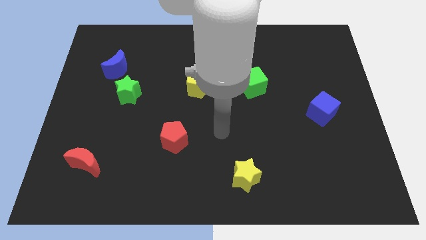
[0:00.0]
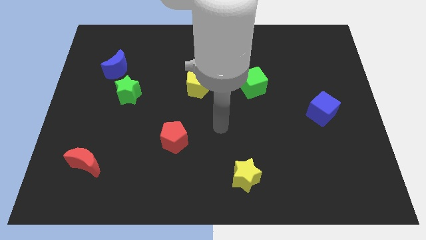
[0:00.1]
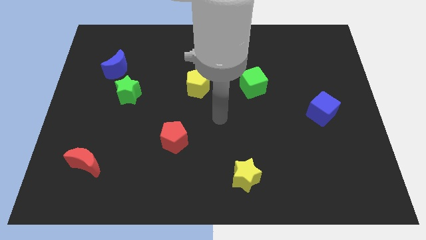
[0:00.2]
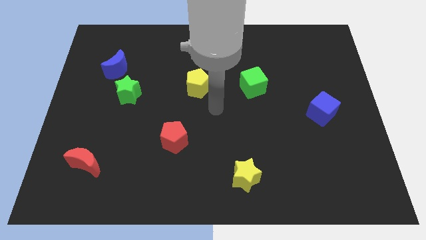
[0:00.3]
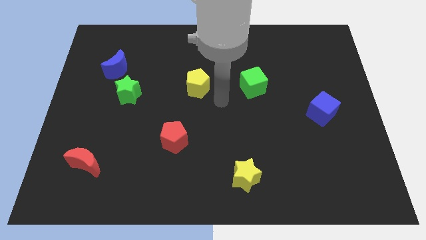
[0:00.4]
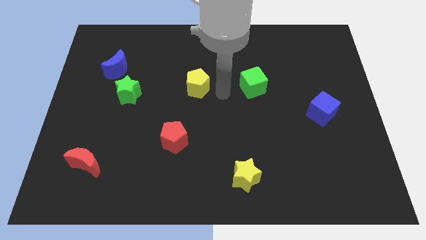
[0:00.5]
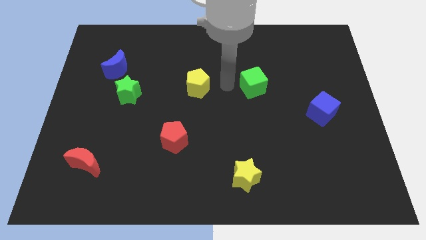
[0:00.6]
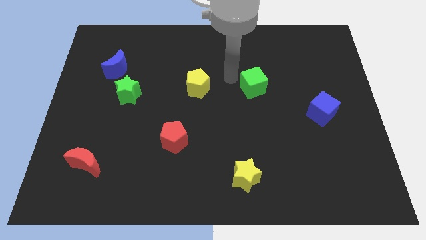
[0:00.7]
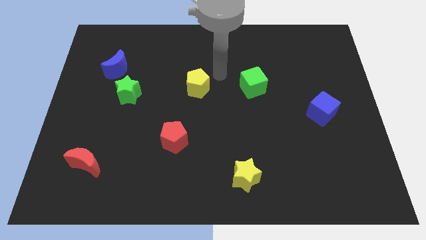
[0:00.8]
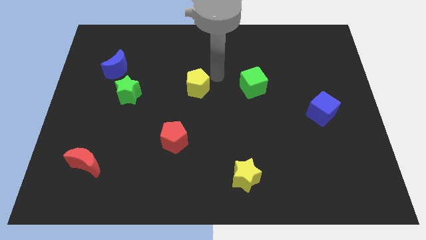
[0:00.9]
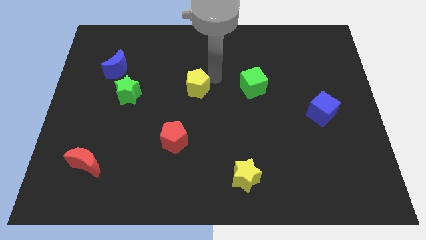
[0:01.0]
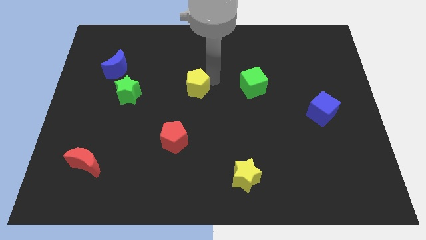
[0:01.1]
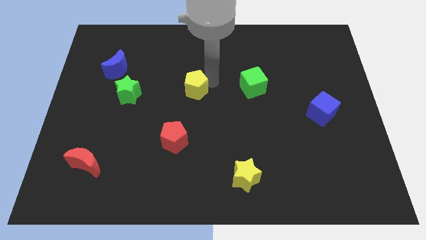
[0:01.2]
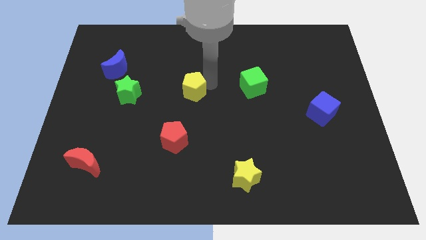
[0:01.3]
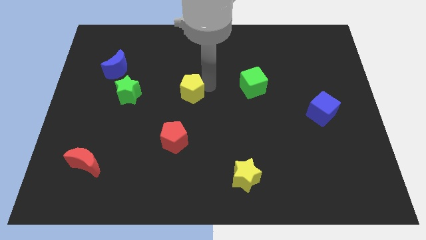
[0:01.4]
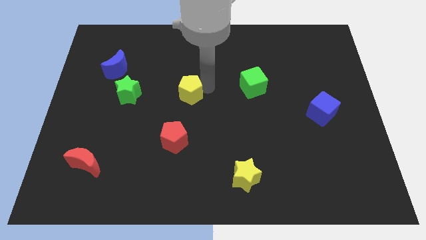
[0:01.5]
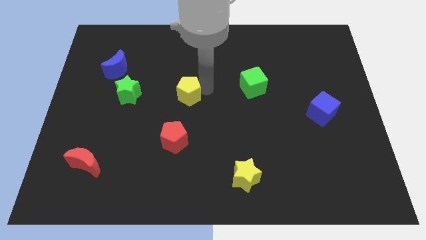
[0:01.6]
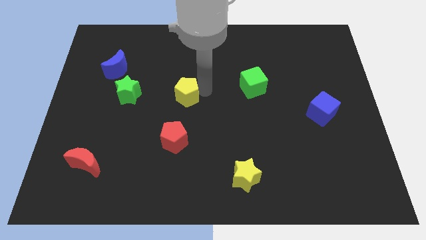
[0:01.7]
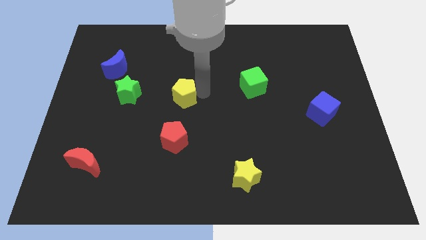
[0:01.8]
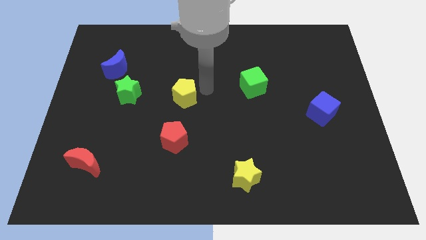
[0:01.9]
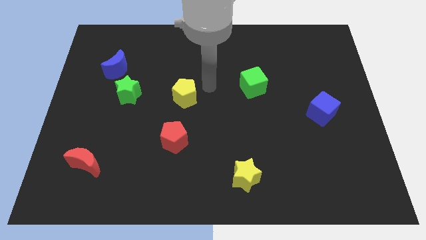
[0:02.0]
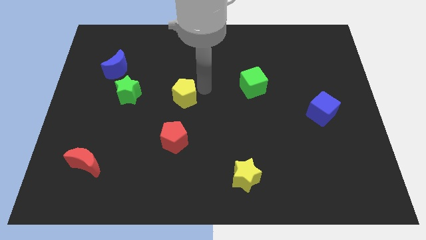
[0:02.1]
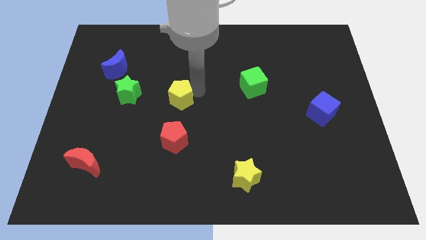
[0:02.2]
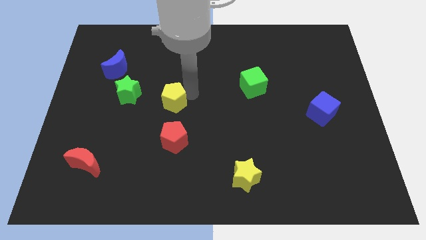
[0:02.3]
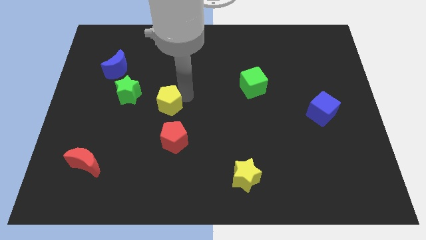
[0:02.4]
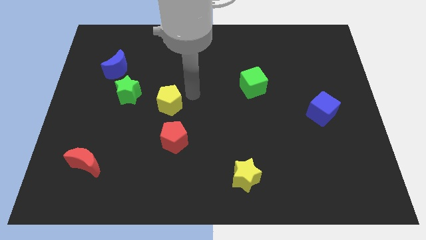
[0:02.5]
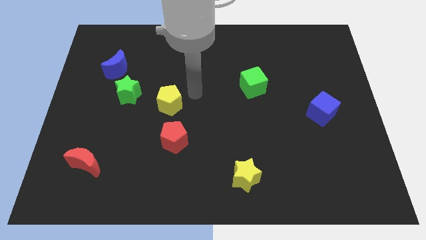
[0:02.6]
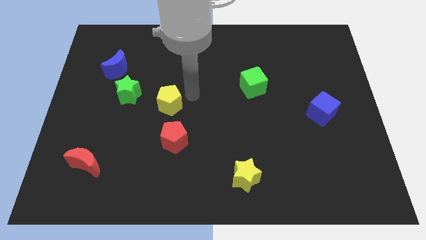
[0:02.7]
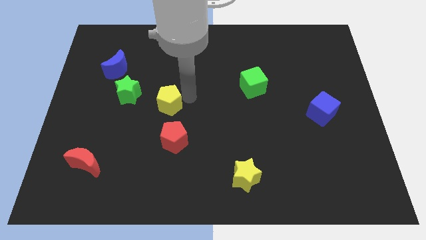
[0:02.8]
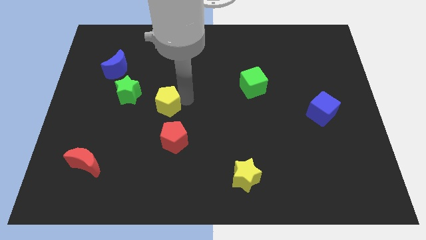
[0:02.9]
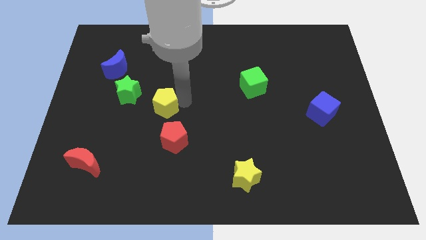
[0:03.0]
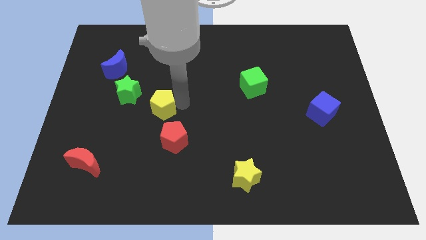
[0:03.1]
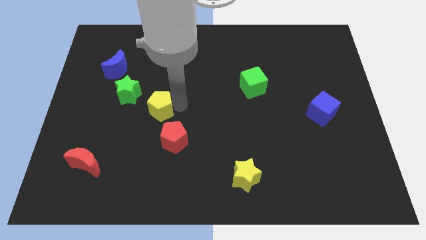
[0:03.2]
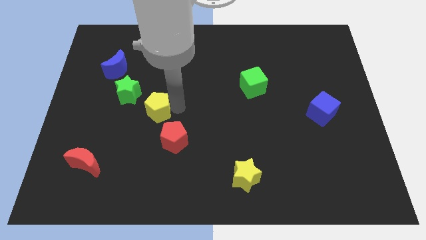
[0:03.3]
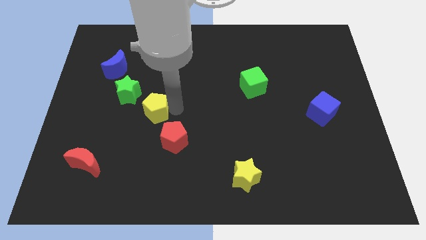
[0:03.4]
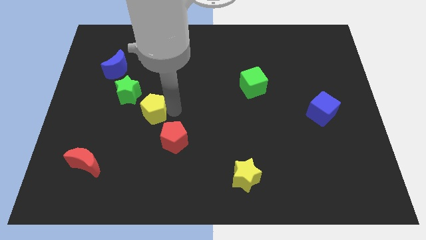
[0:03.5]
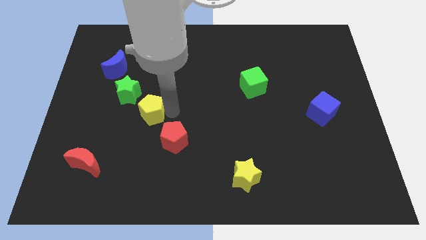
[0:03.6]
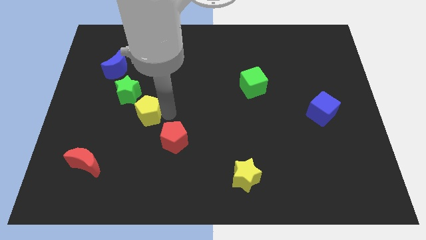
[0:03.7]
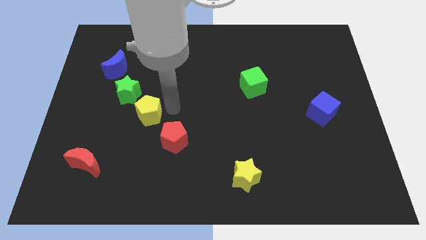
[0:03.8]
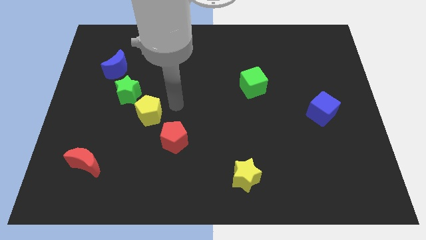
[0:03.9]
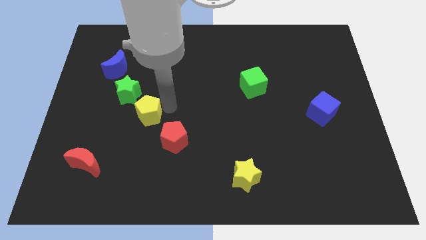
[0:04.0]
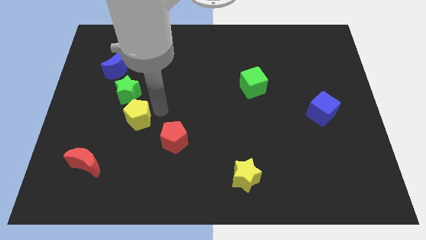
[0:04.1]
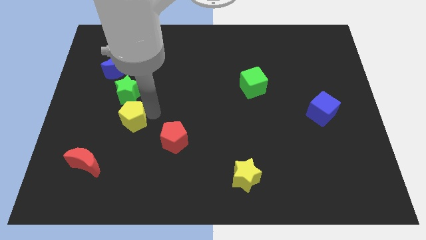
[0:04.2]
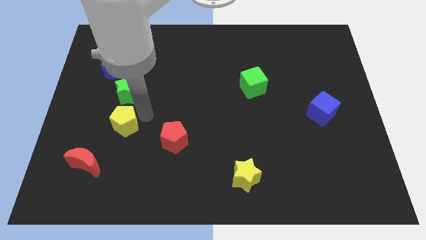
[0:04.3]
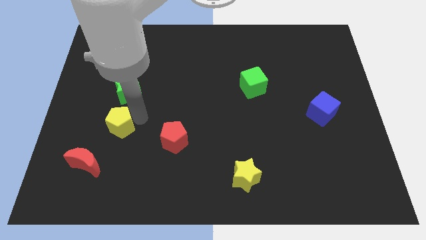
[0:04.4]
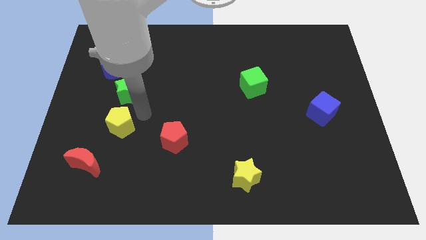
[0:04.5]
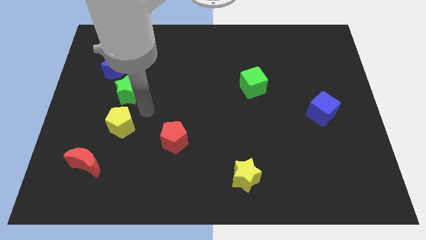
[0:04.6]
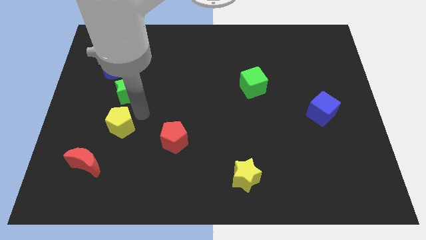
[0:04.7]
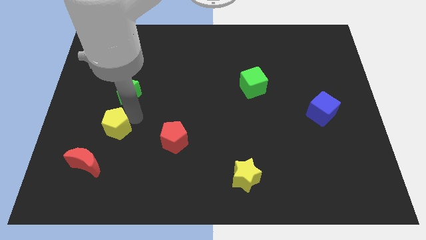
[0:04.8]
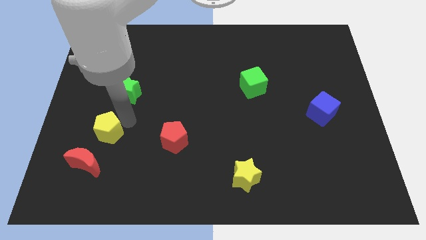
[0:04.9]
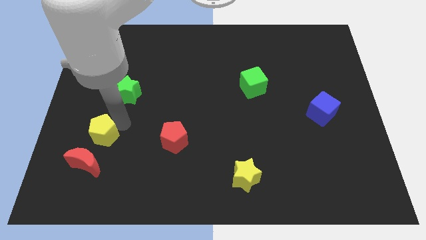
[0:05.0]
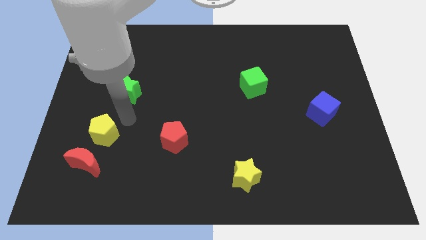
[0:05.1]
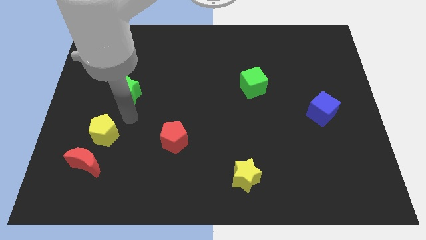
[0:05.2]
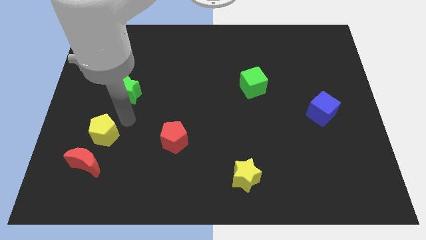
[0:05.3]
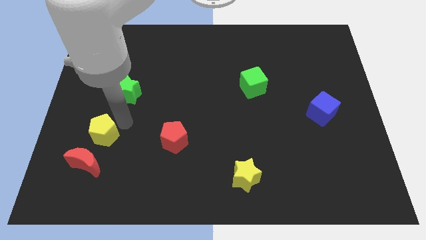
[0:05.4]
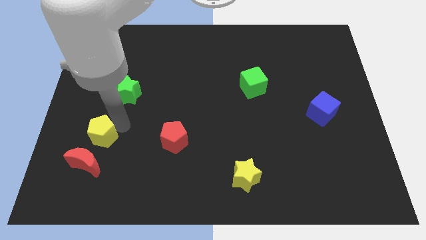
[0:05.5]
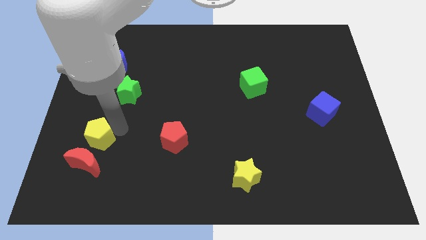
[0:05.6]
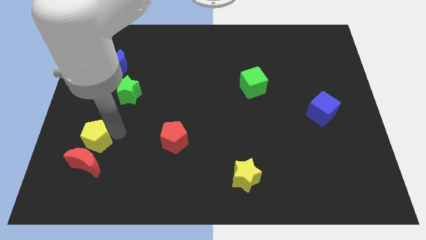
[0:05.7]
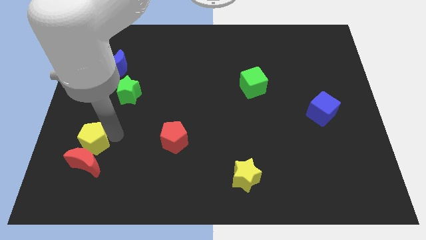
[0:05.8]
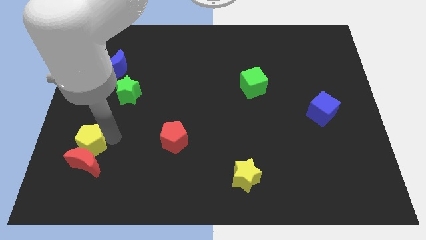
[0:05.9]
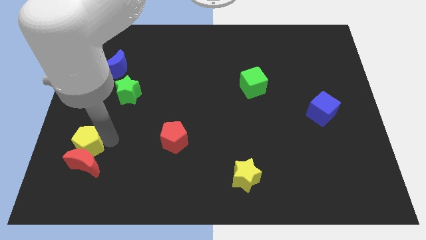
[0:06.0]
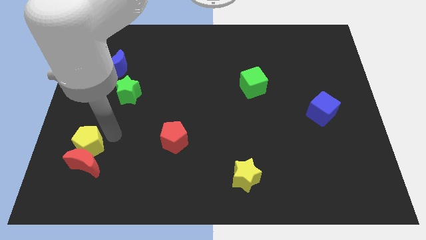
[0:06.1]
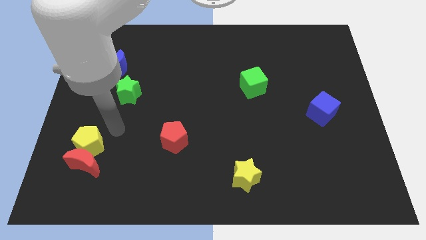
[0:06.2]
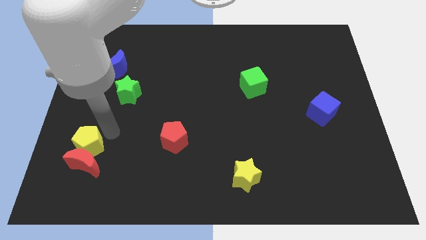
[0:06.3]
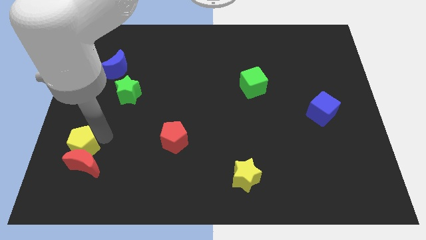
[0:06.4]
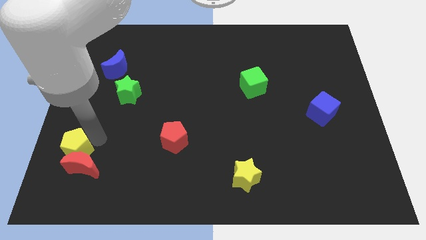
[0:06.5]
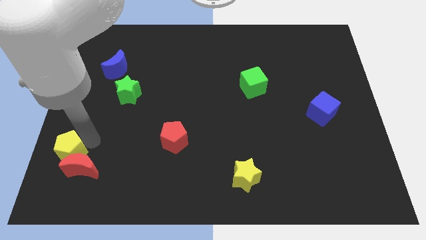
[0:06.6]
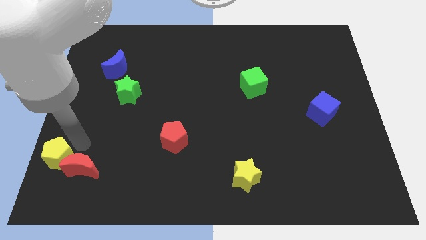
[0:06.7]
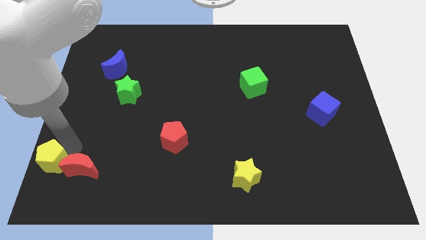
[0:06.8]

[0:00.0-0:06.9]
push the yellow pentagon to the bottom left of the board
